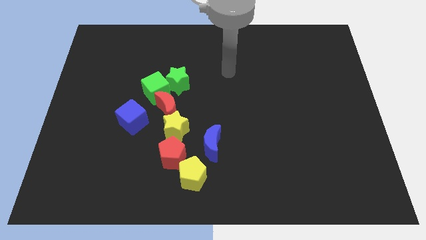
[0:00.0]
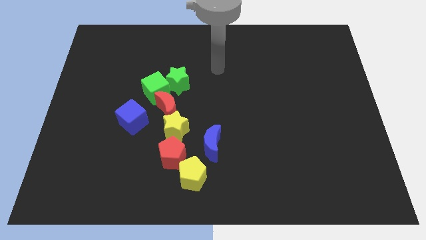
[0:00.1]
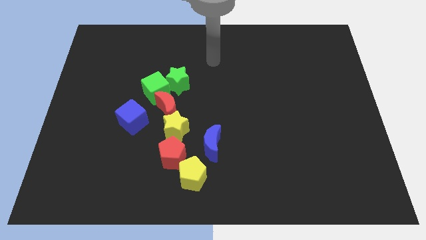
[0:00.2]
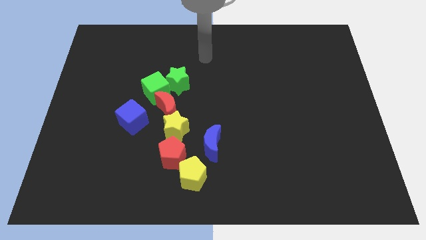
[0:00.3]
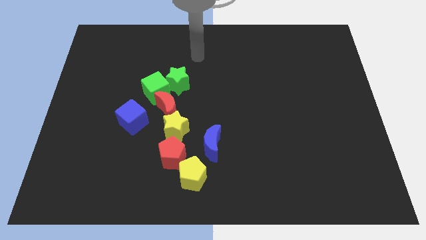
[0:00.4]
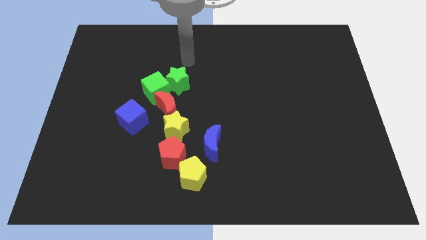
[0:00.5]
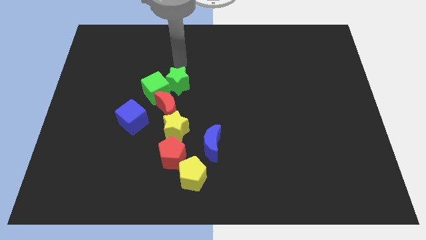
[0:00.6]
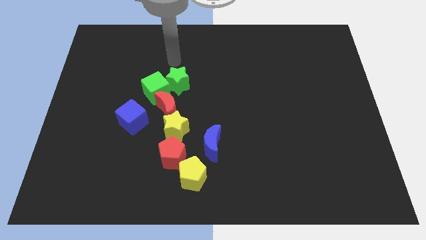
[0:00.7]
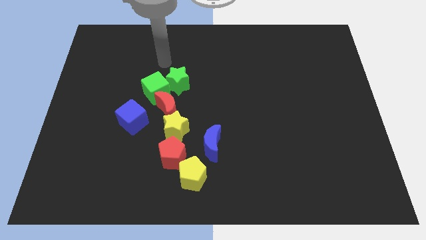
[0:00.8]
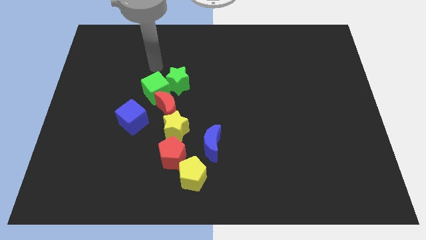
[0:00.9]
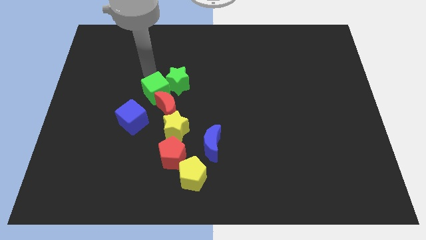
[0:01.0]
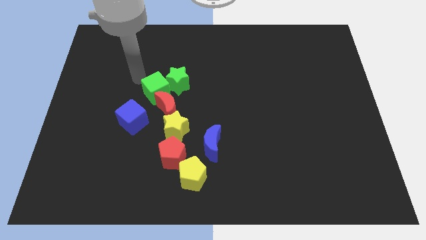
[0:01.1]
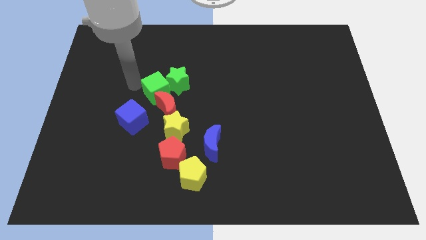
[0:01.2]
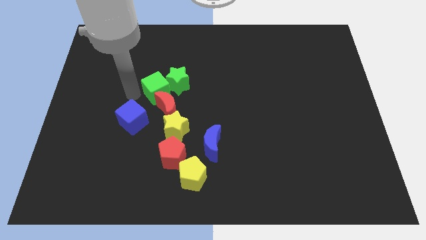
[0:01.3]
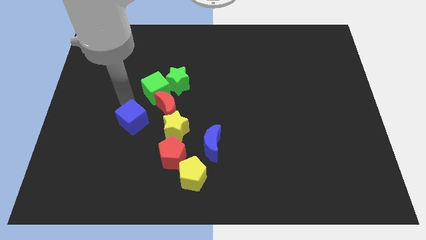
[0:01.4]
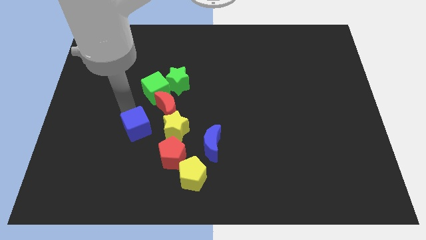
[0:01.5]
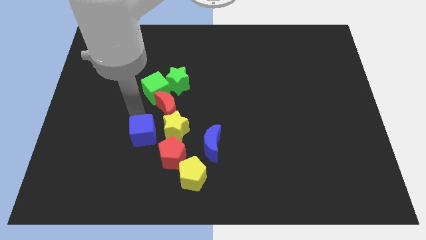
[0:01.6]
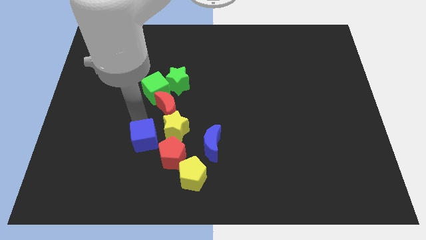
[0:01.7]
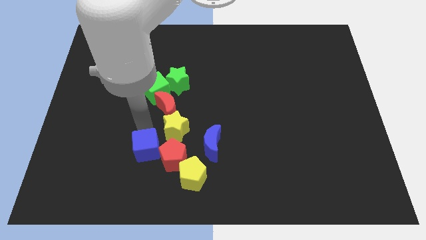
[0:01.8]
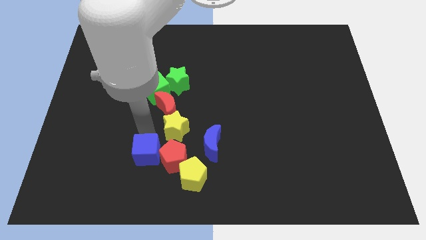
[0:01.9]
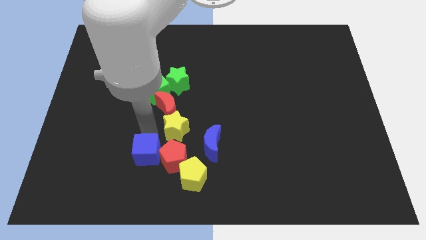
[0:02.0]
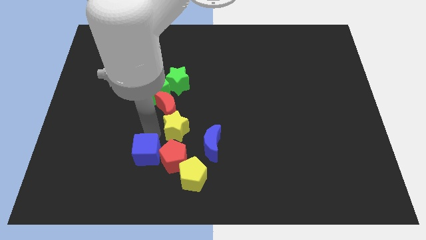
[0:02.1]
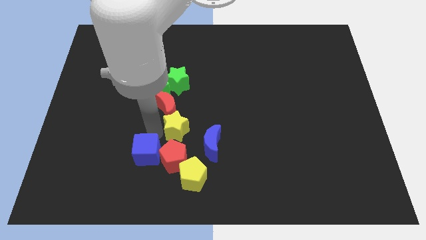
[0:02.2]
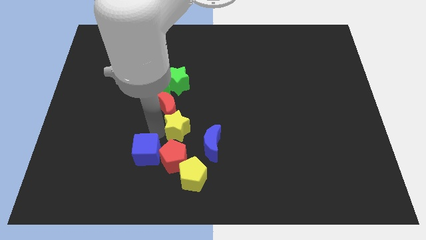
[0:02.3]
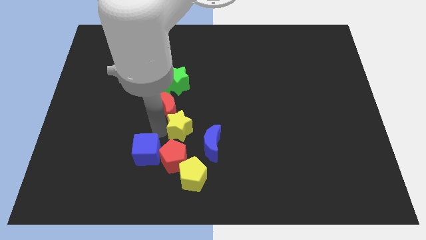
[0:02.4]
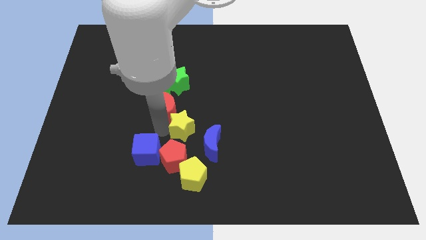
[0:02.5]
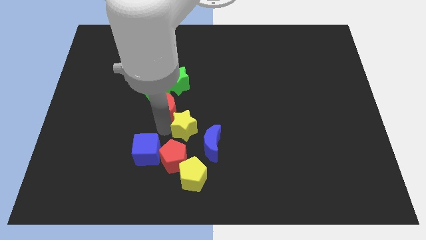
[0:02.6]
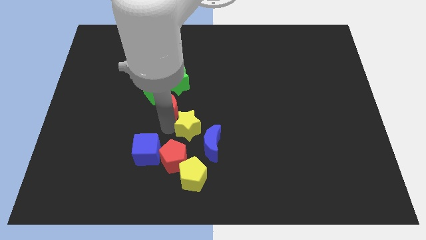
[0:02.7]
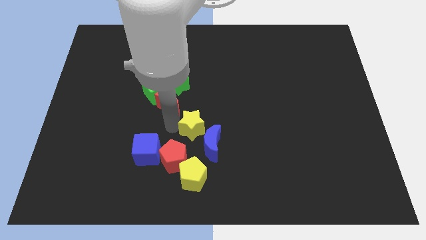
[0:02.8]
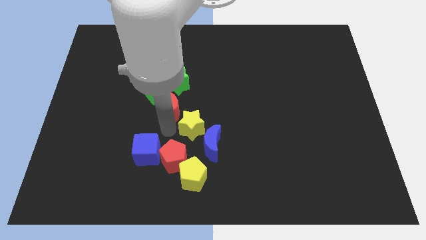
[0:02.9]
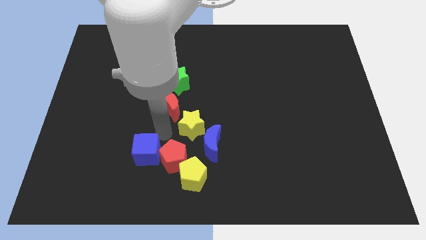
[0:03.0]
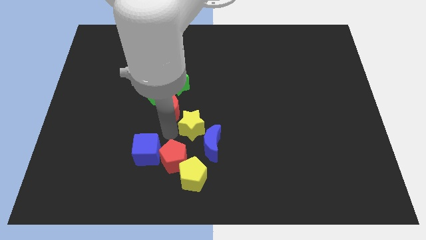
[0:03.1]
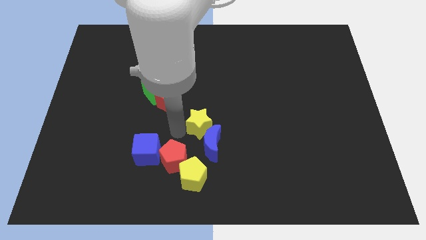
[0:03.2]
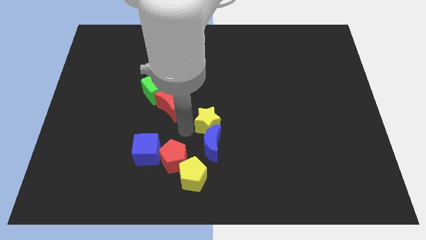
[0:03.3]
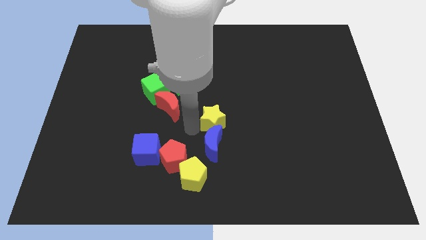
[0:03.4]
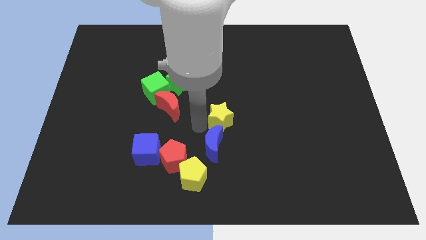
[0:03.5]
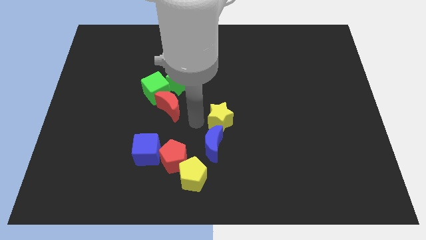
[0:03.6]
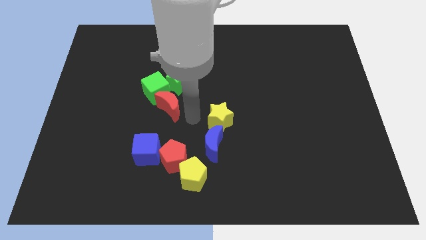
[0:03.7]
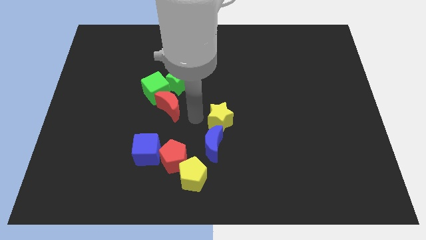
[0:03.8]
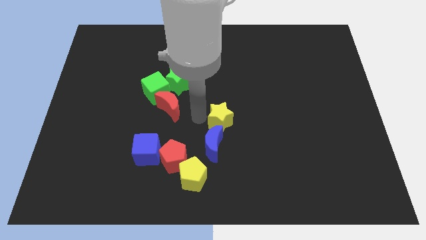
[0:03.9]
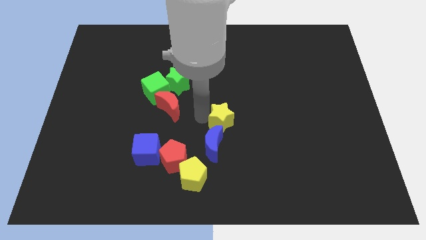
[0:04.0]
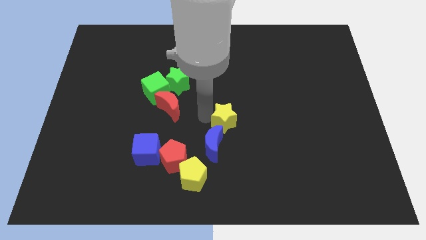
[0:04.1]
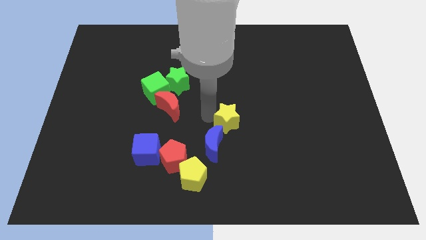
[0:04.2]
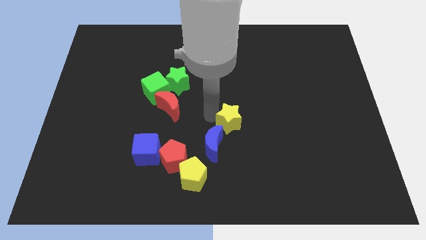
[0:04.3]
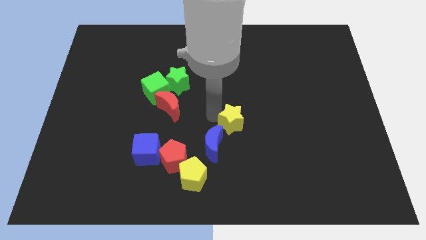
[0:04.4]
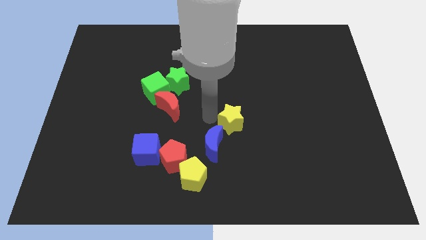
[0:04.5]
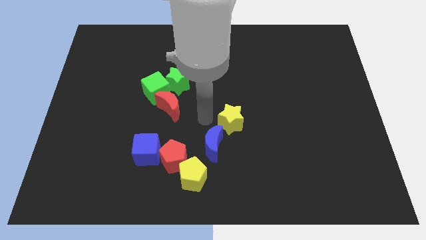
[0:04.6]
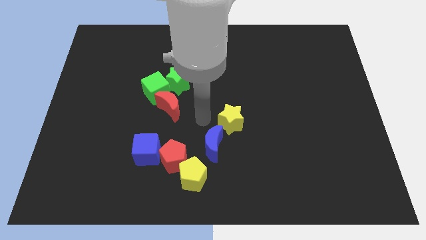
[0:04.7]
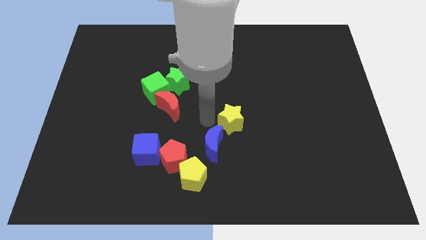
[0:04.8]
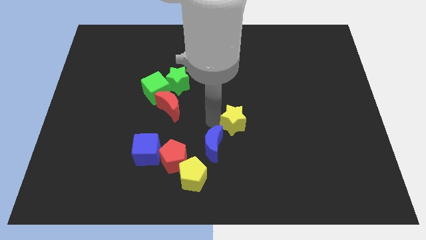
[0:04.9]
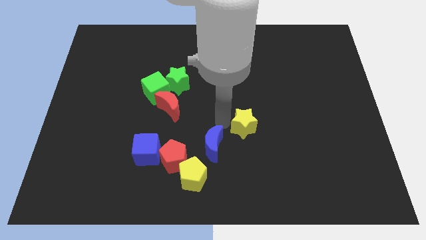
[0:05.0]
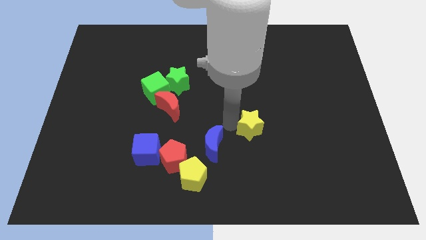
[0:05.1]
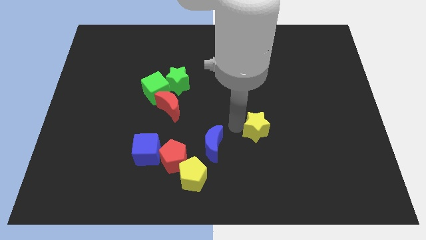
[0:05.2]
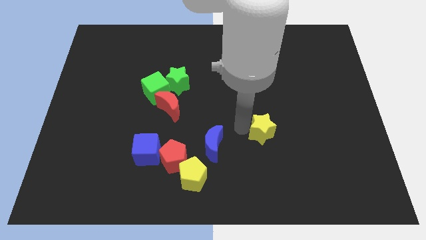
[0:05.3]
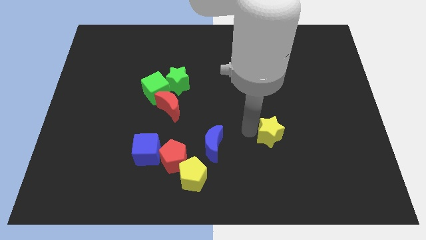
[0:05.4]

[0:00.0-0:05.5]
push the yellow star right

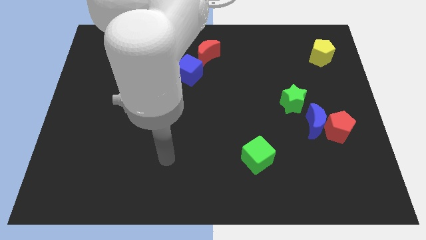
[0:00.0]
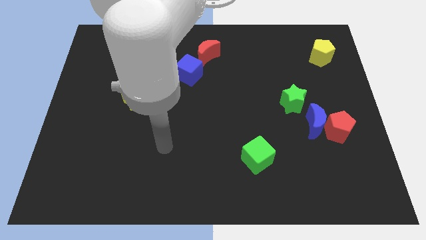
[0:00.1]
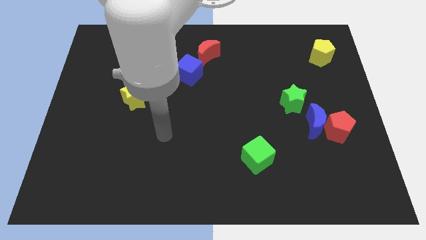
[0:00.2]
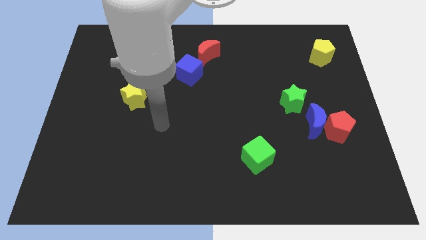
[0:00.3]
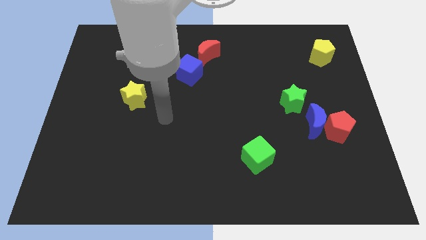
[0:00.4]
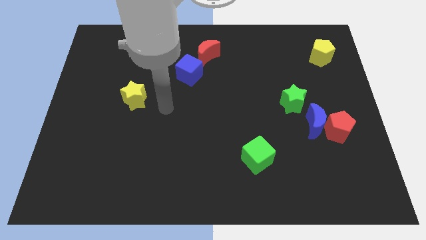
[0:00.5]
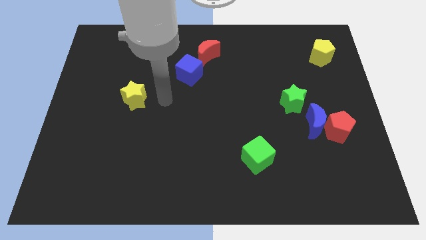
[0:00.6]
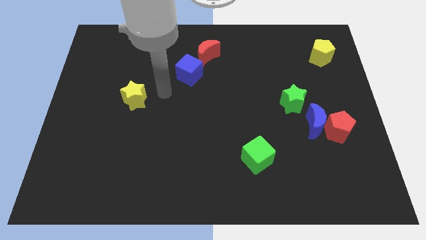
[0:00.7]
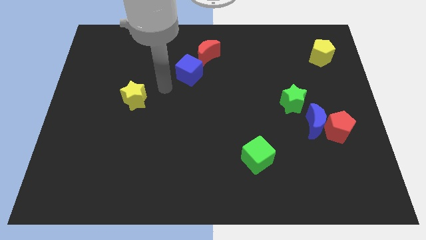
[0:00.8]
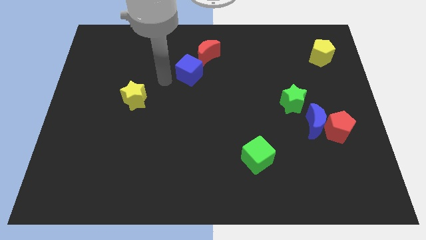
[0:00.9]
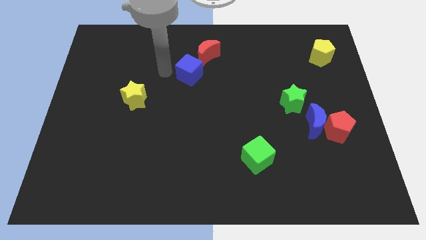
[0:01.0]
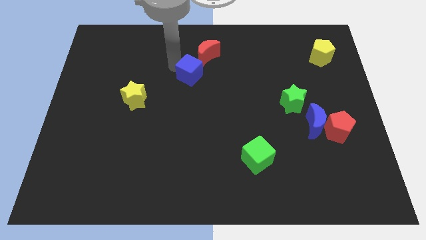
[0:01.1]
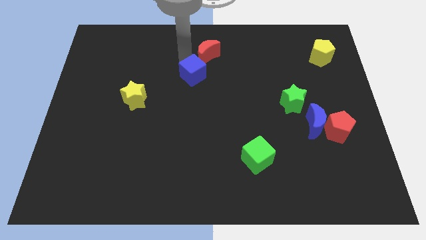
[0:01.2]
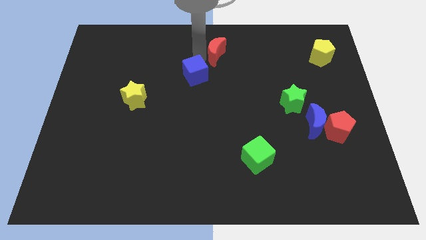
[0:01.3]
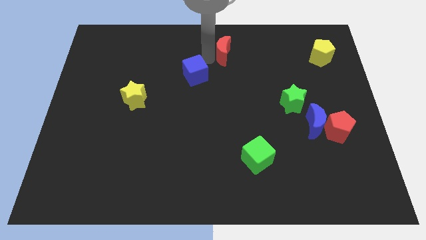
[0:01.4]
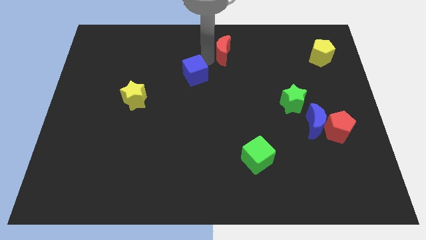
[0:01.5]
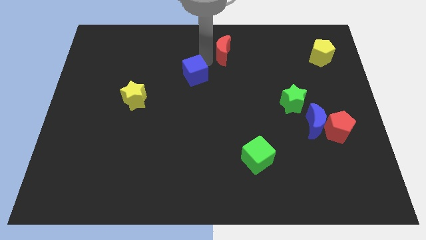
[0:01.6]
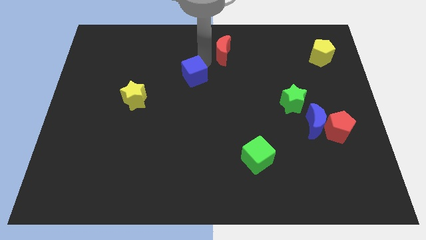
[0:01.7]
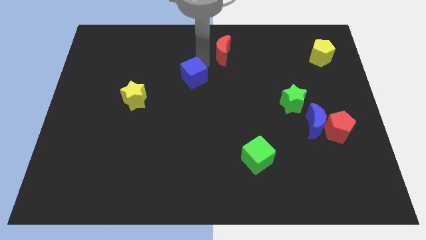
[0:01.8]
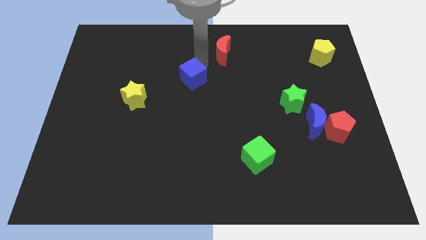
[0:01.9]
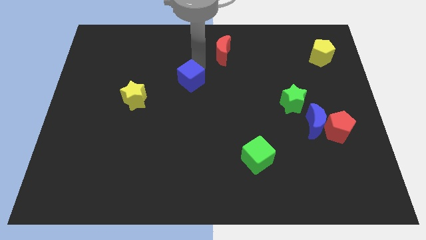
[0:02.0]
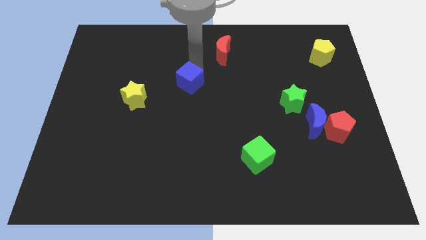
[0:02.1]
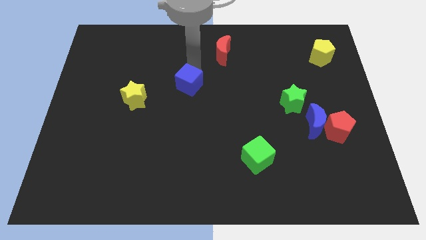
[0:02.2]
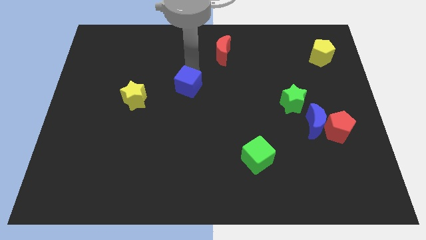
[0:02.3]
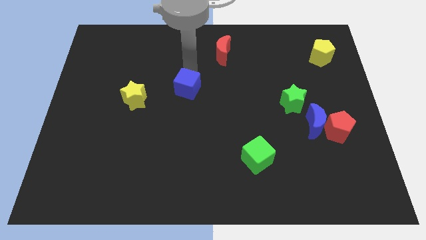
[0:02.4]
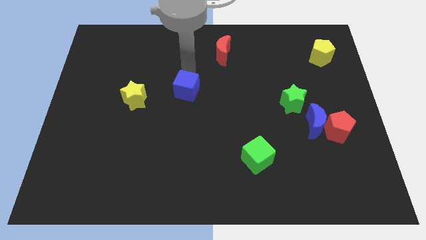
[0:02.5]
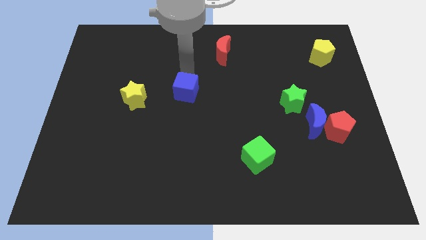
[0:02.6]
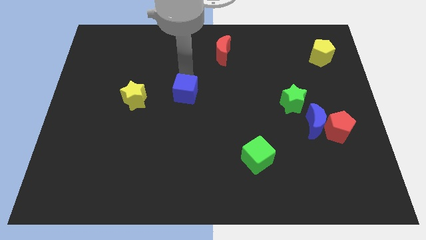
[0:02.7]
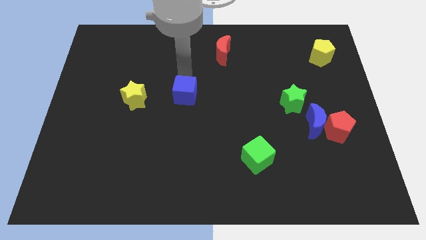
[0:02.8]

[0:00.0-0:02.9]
move the blue cube a little downwards
